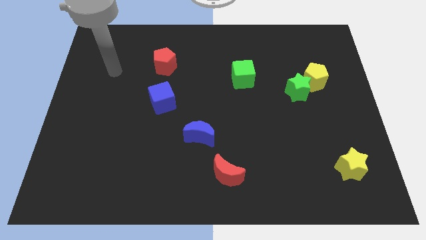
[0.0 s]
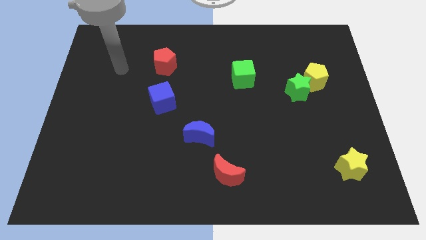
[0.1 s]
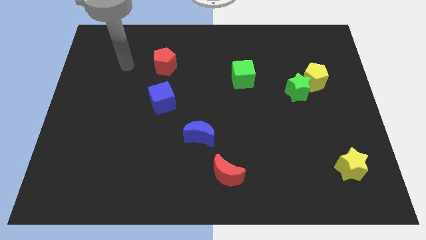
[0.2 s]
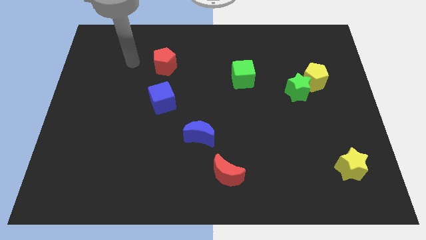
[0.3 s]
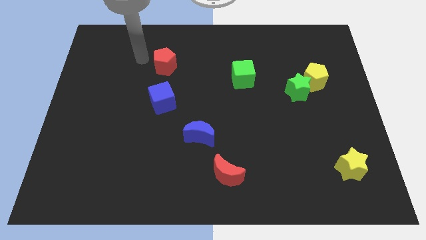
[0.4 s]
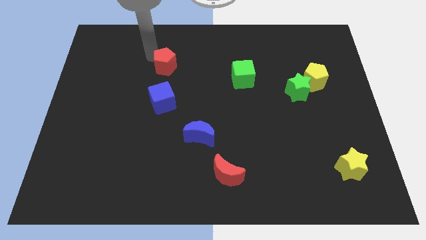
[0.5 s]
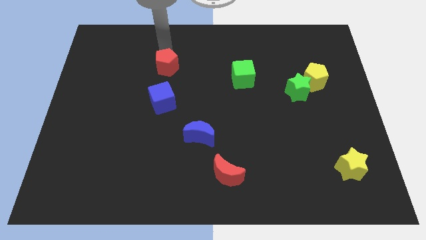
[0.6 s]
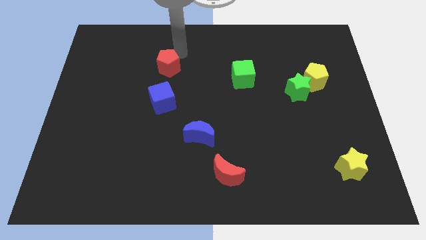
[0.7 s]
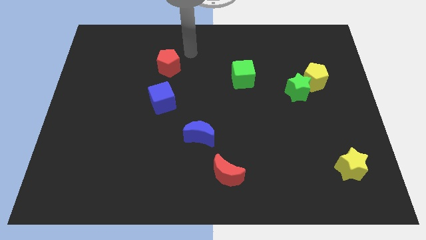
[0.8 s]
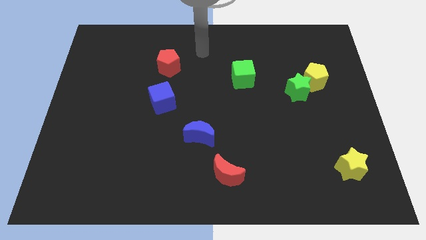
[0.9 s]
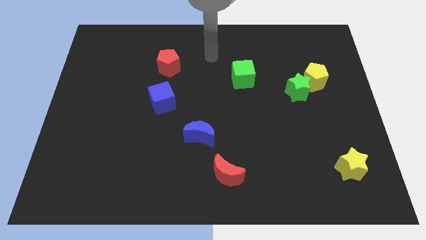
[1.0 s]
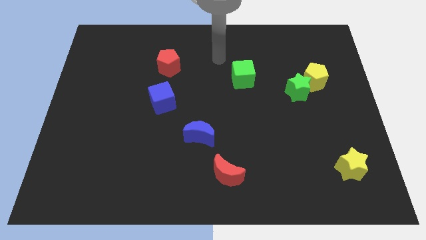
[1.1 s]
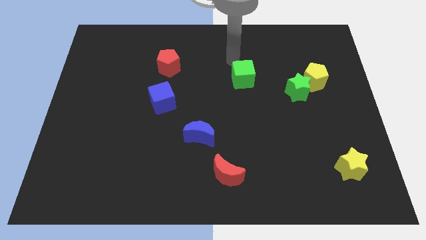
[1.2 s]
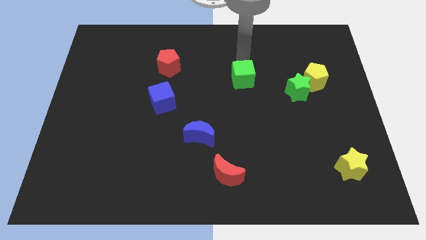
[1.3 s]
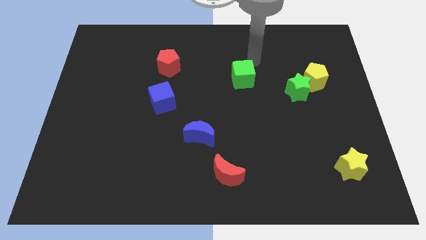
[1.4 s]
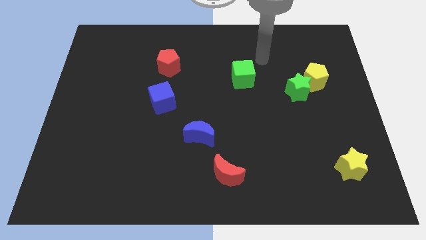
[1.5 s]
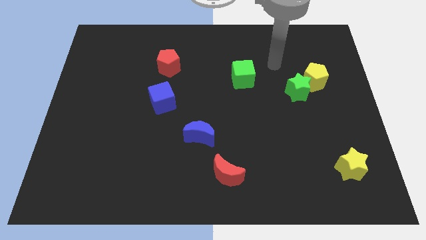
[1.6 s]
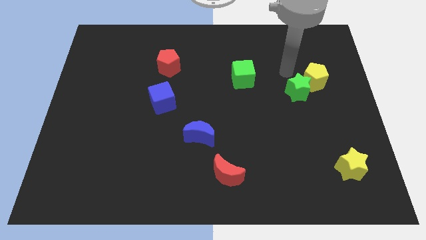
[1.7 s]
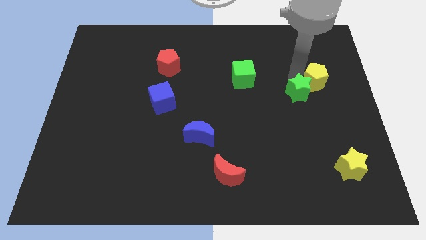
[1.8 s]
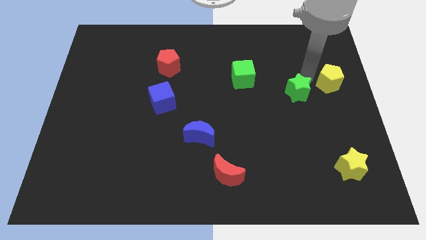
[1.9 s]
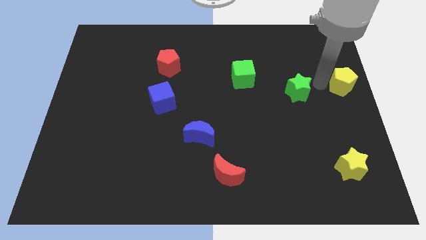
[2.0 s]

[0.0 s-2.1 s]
separate the green star from the yellow pentagon

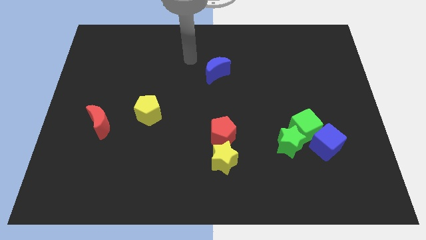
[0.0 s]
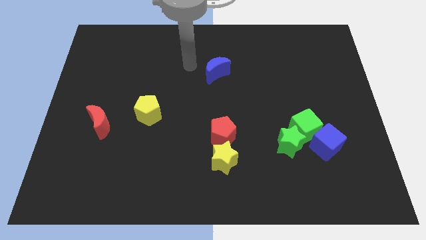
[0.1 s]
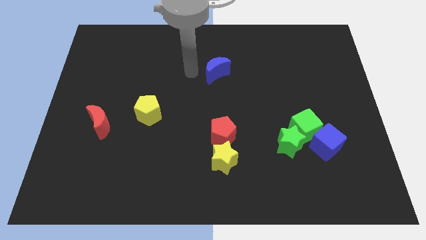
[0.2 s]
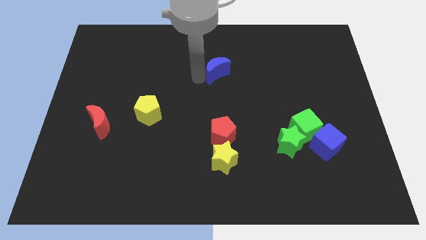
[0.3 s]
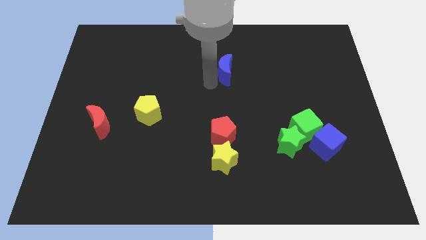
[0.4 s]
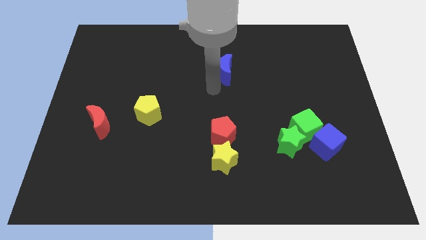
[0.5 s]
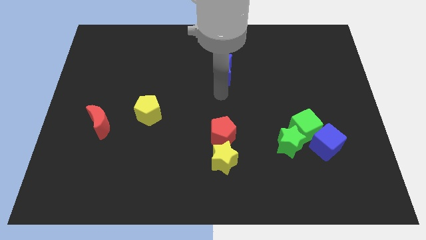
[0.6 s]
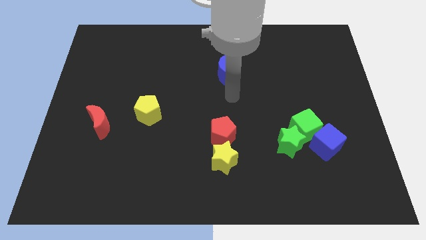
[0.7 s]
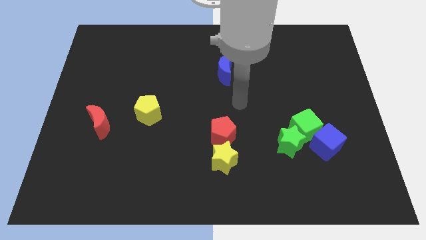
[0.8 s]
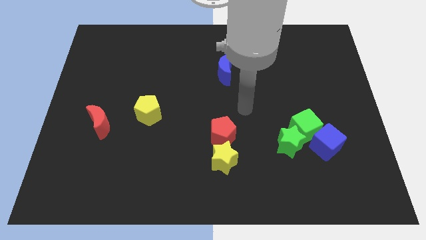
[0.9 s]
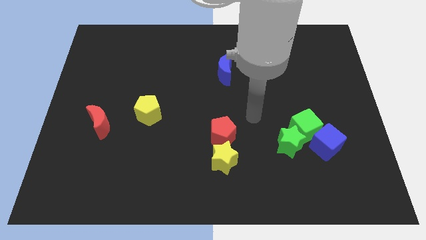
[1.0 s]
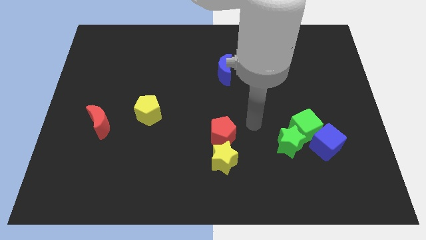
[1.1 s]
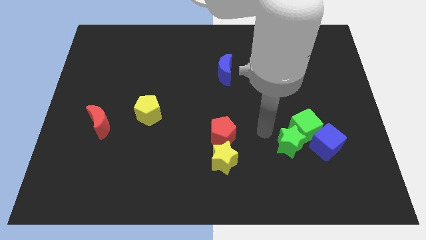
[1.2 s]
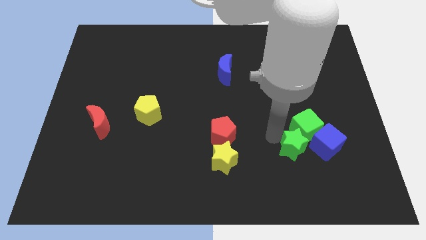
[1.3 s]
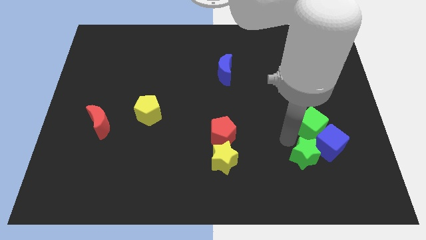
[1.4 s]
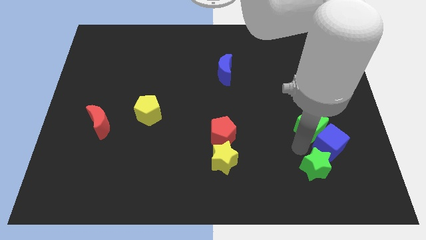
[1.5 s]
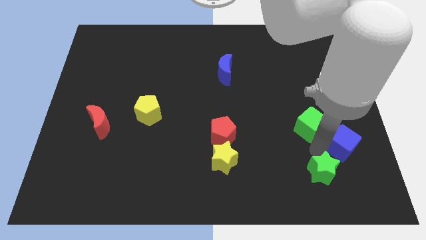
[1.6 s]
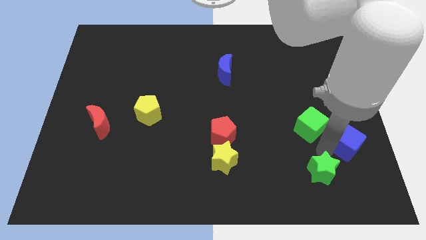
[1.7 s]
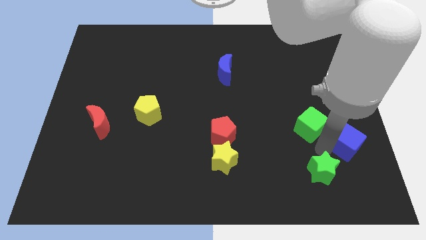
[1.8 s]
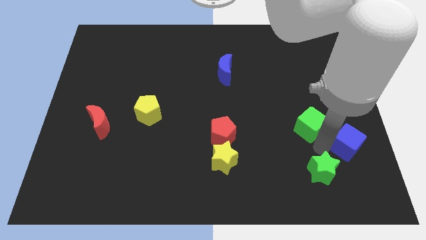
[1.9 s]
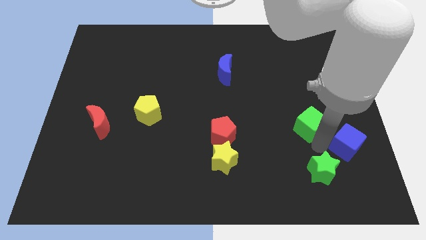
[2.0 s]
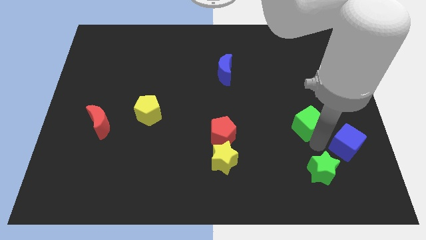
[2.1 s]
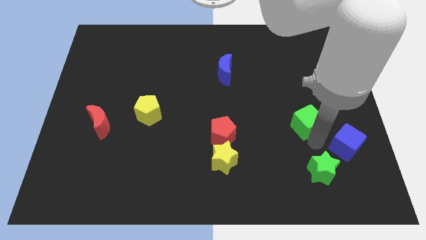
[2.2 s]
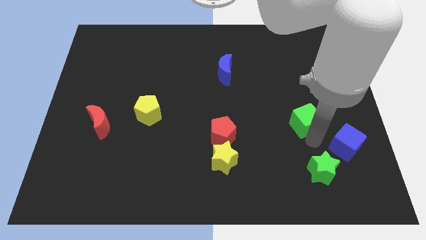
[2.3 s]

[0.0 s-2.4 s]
pull the green cube apart from the green star and blue cube

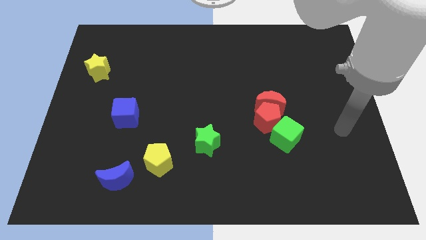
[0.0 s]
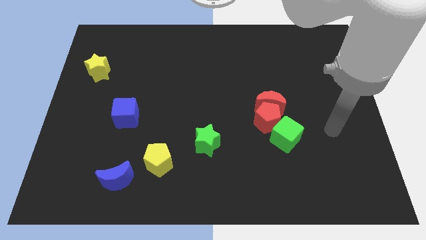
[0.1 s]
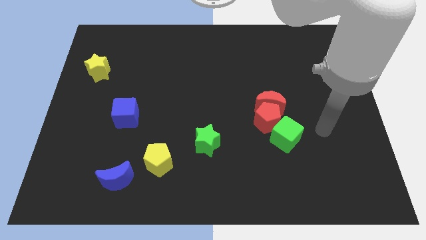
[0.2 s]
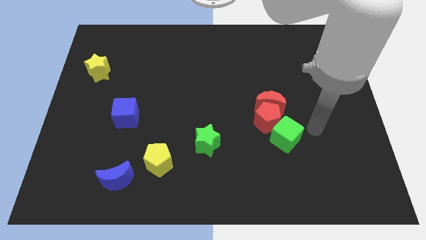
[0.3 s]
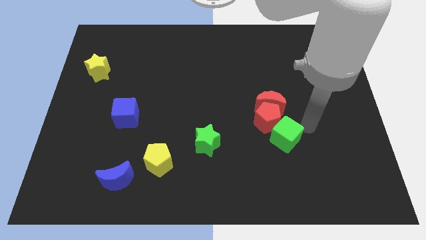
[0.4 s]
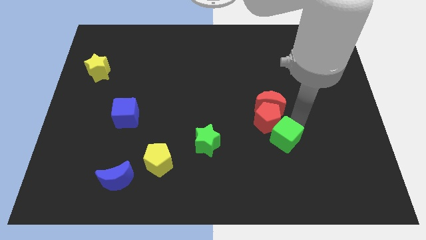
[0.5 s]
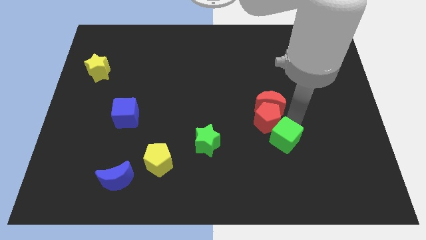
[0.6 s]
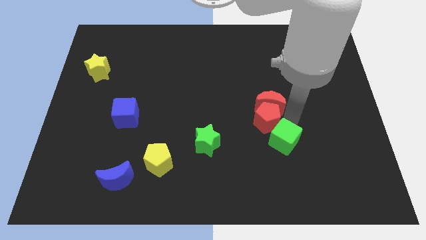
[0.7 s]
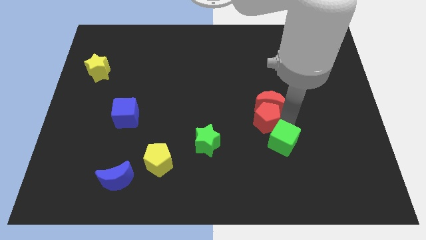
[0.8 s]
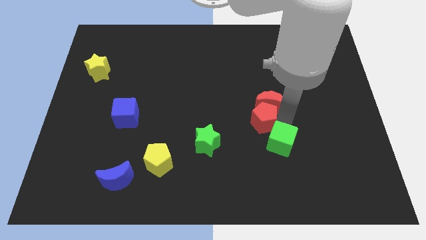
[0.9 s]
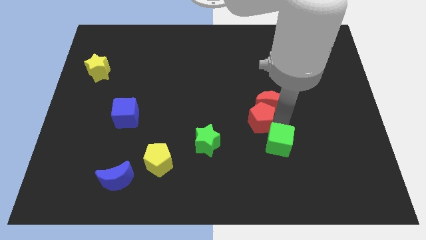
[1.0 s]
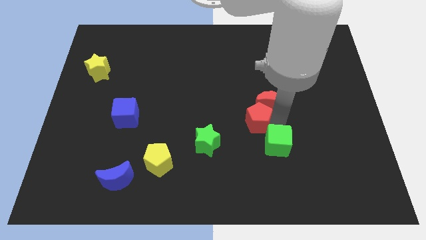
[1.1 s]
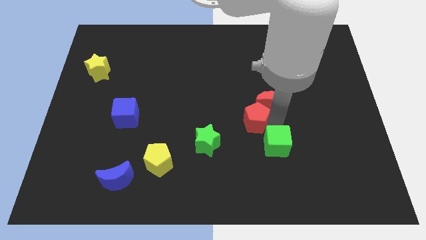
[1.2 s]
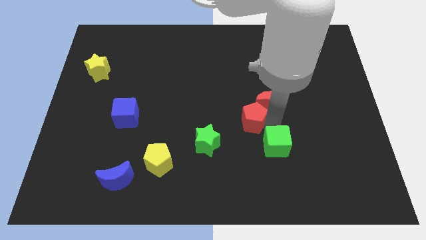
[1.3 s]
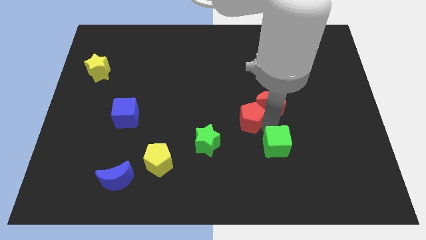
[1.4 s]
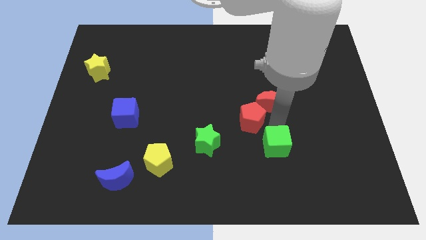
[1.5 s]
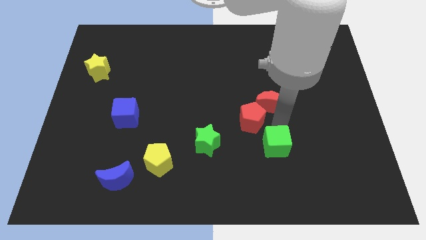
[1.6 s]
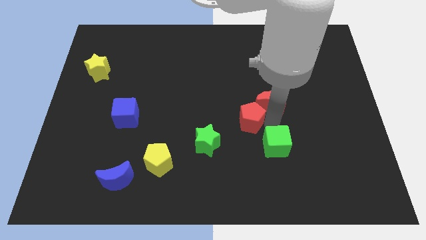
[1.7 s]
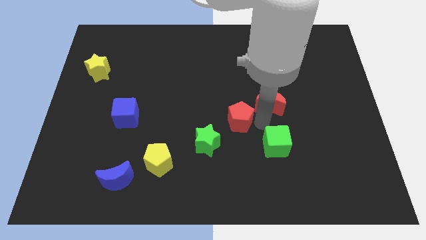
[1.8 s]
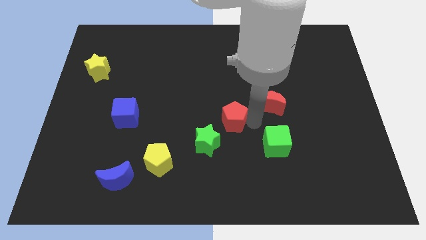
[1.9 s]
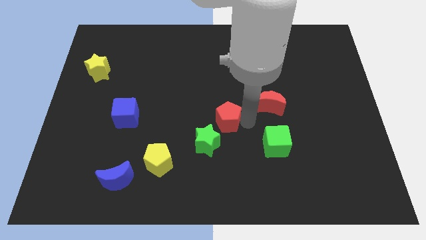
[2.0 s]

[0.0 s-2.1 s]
move the red pentagon away from the red moon and green cube

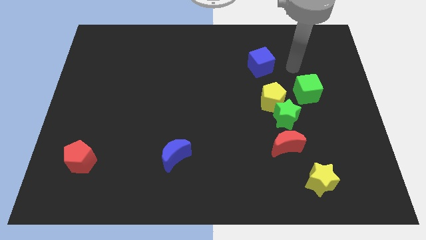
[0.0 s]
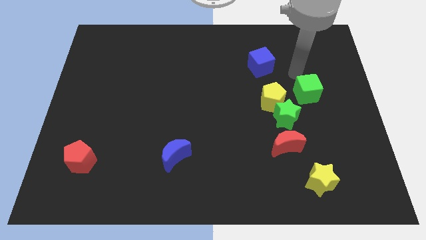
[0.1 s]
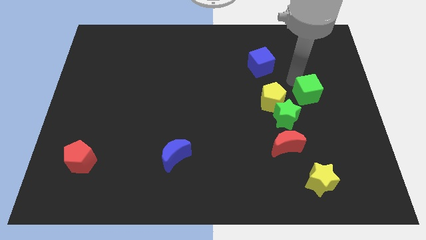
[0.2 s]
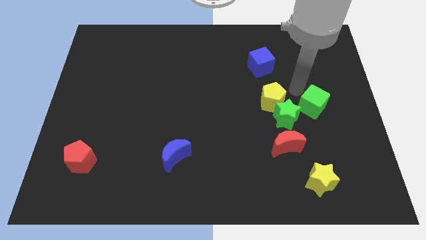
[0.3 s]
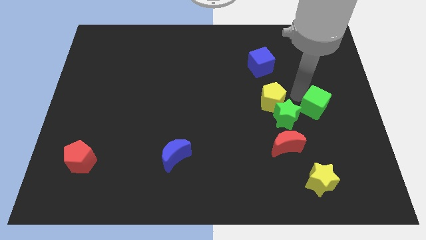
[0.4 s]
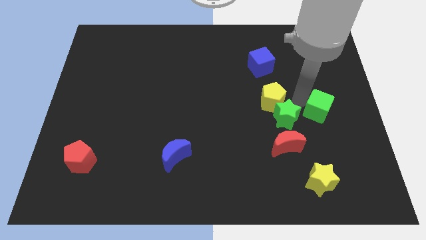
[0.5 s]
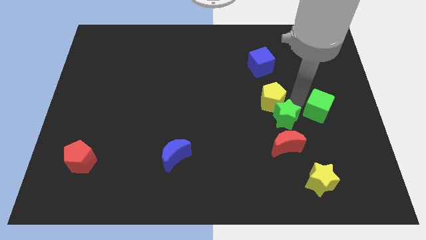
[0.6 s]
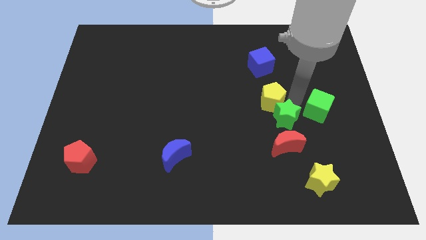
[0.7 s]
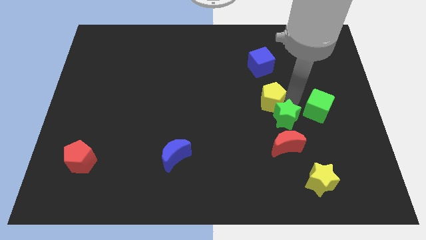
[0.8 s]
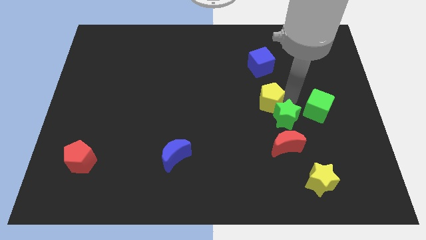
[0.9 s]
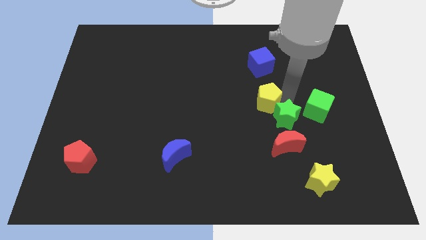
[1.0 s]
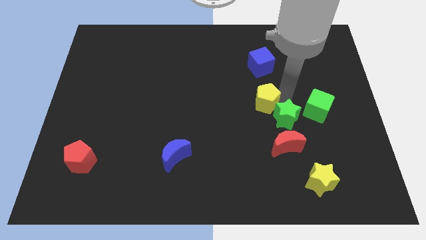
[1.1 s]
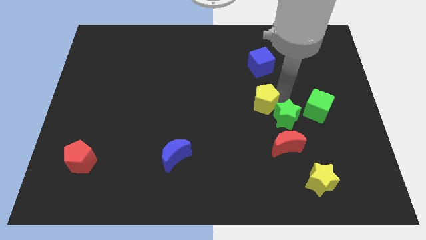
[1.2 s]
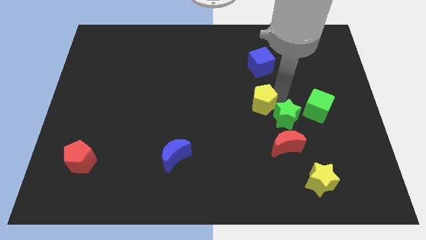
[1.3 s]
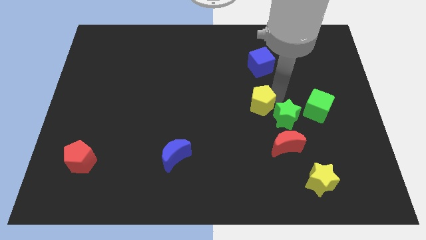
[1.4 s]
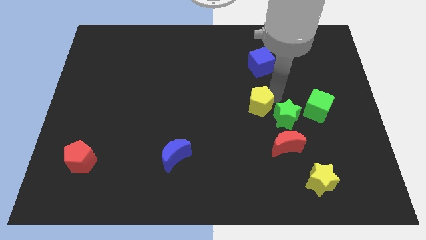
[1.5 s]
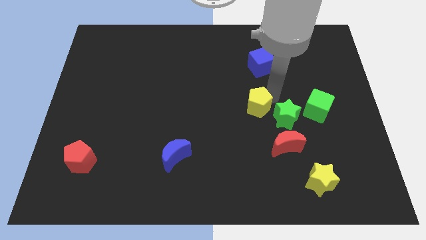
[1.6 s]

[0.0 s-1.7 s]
separate the yellow pentagon from the green star and green cube

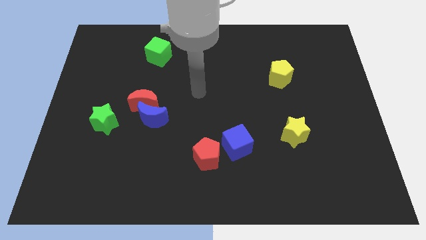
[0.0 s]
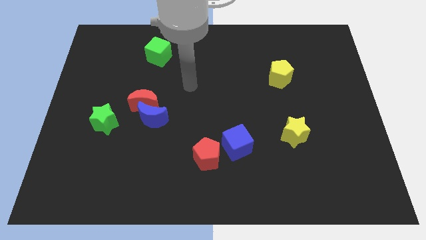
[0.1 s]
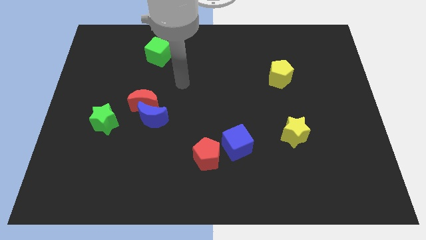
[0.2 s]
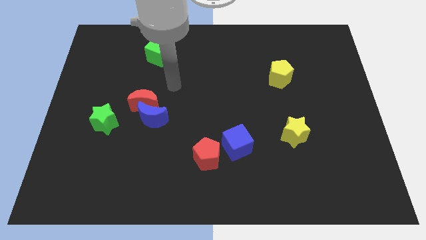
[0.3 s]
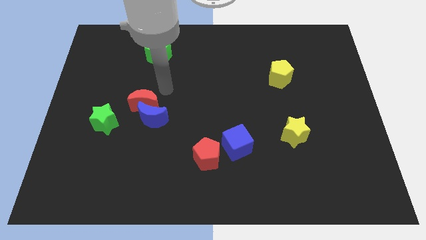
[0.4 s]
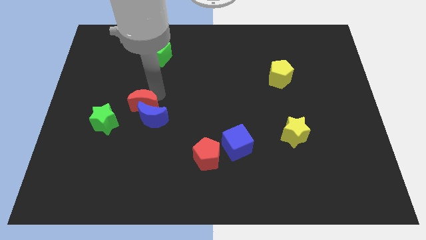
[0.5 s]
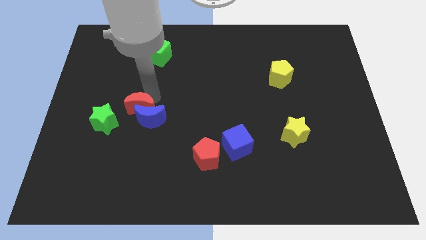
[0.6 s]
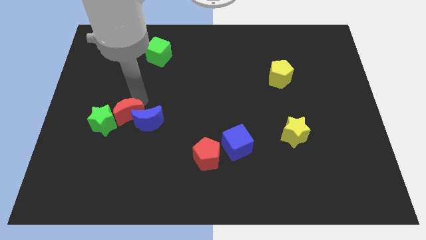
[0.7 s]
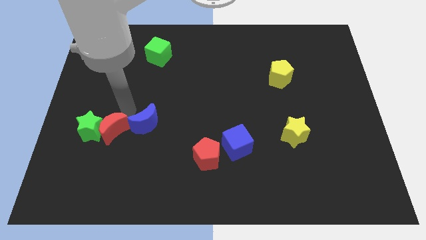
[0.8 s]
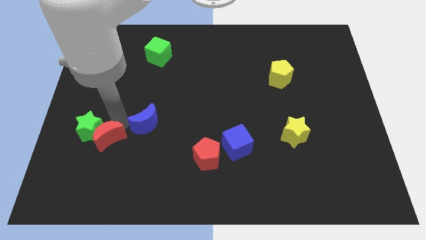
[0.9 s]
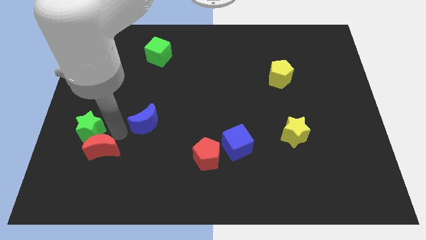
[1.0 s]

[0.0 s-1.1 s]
separate the blue moon from the red moon
